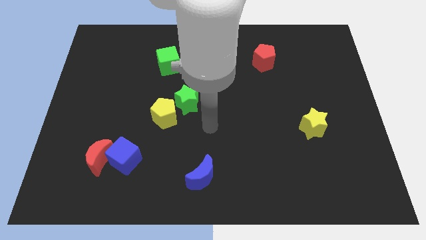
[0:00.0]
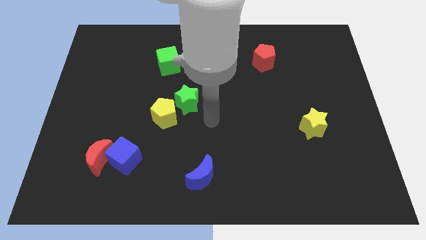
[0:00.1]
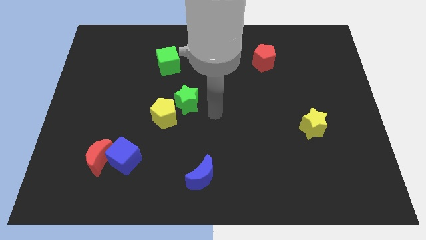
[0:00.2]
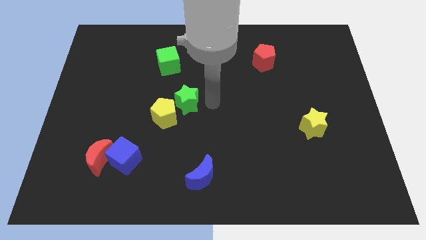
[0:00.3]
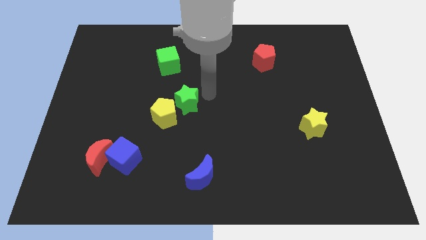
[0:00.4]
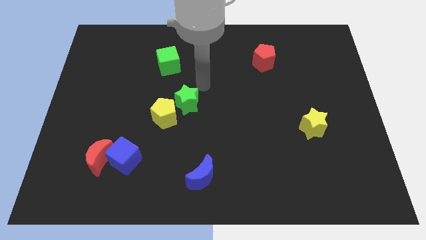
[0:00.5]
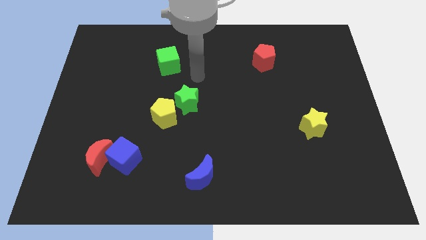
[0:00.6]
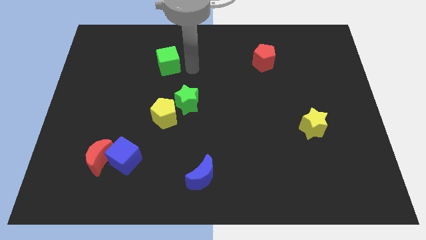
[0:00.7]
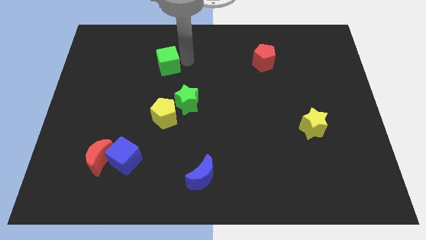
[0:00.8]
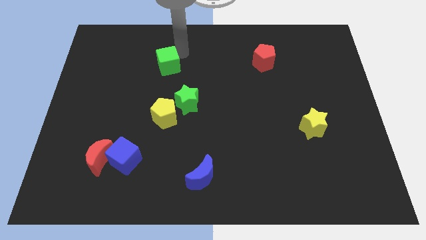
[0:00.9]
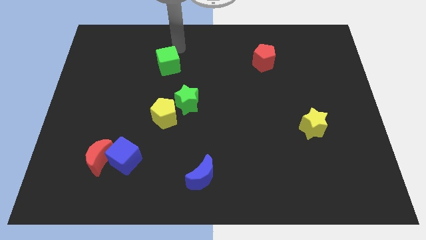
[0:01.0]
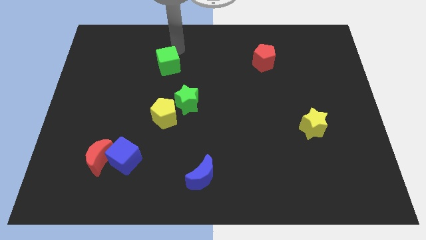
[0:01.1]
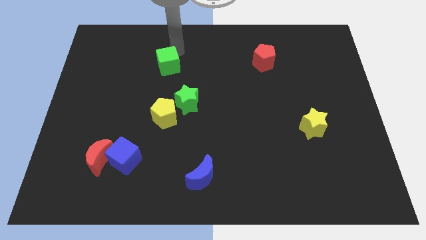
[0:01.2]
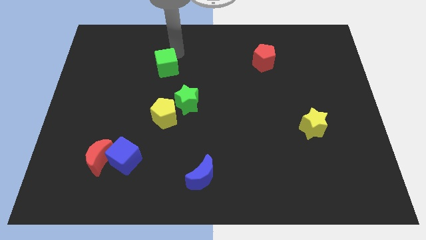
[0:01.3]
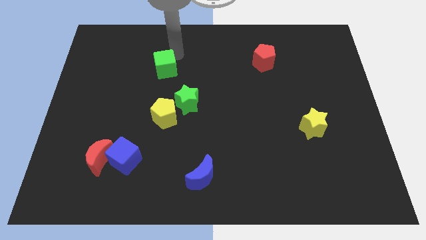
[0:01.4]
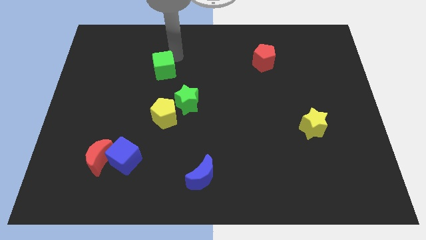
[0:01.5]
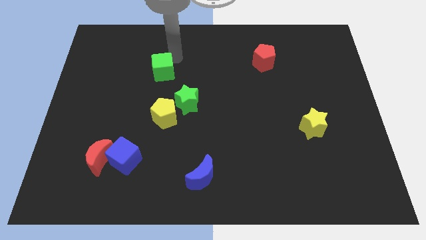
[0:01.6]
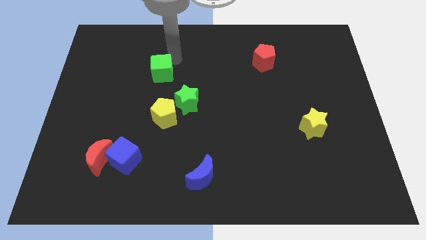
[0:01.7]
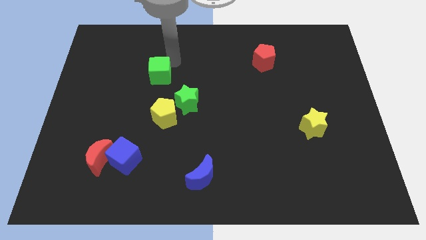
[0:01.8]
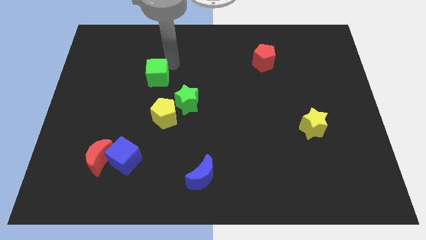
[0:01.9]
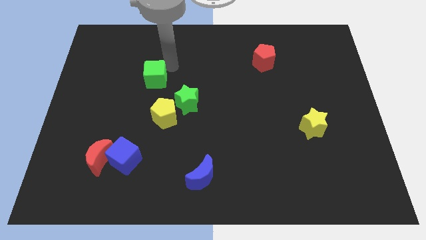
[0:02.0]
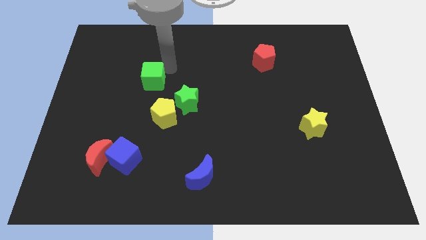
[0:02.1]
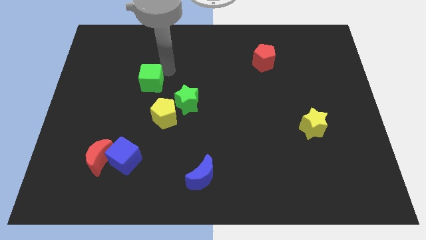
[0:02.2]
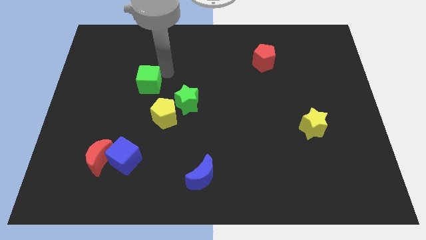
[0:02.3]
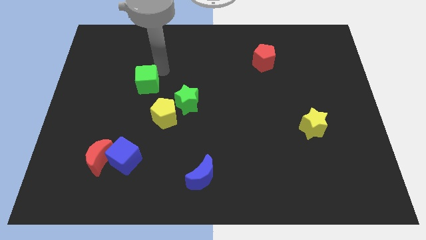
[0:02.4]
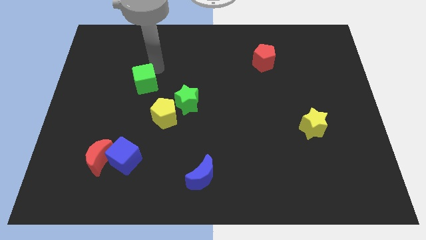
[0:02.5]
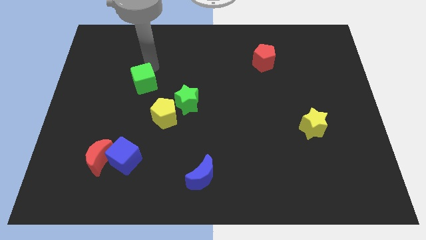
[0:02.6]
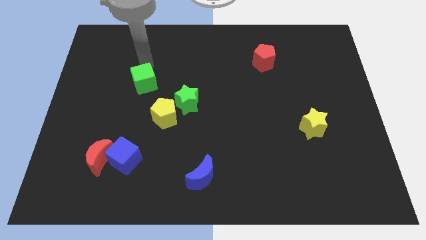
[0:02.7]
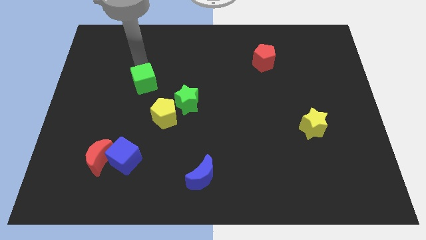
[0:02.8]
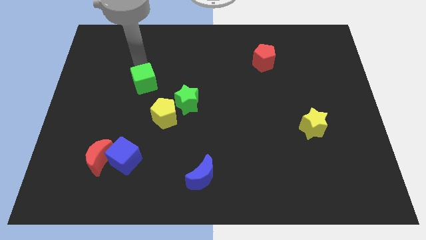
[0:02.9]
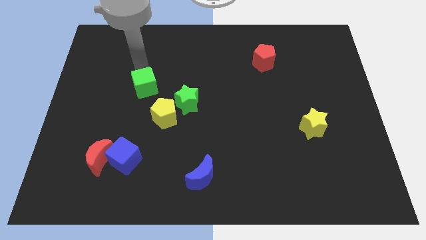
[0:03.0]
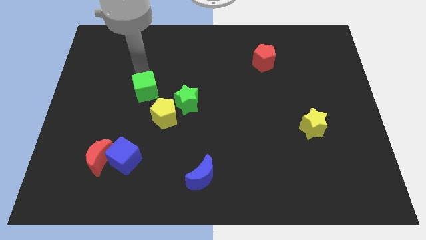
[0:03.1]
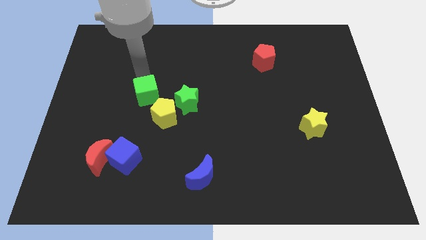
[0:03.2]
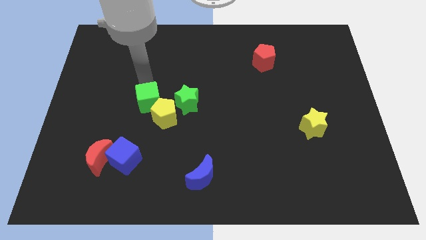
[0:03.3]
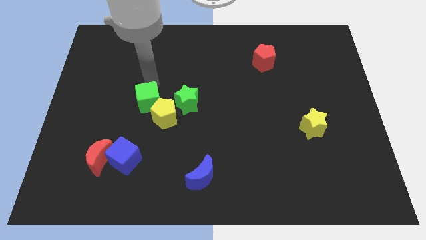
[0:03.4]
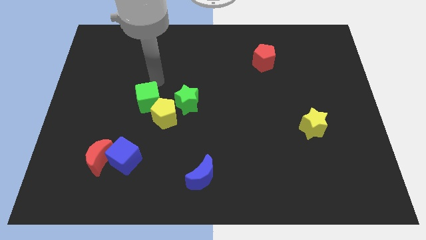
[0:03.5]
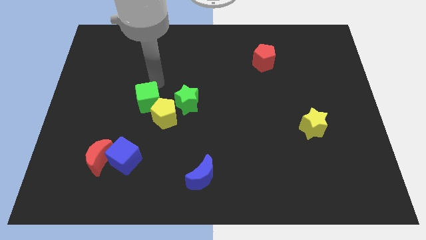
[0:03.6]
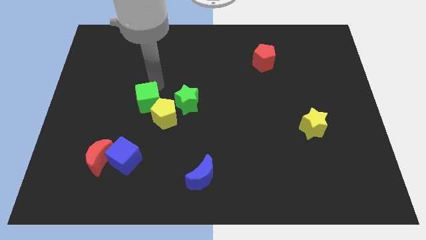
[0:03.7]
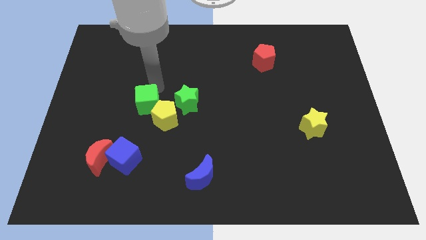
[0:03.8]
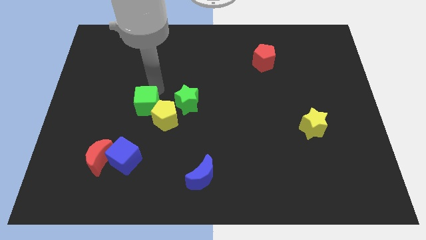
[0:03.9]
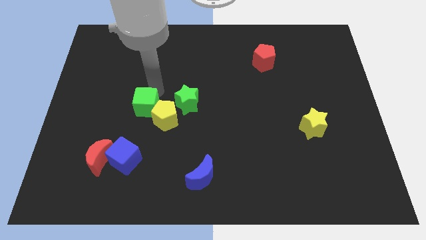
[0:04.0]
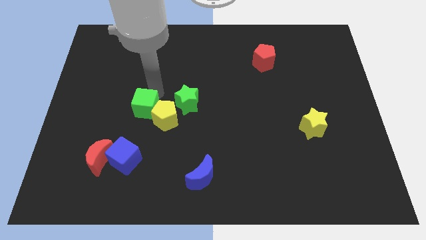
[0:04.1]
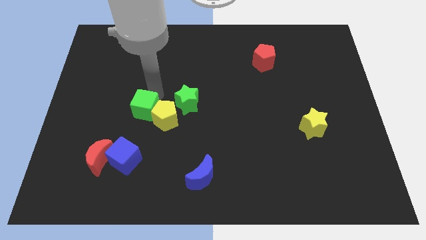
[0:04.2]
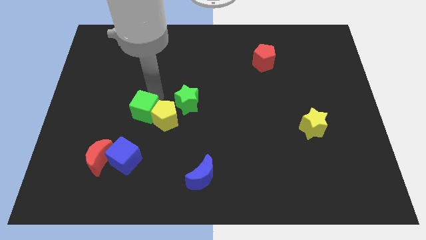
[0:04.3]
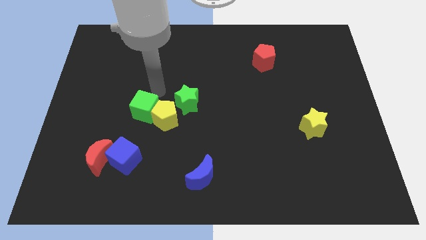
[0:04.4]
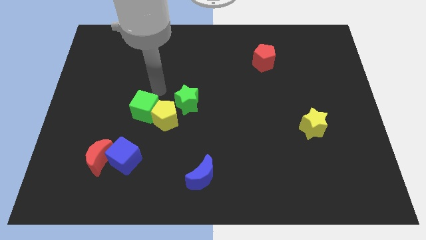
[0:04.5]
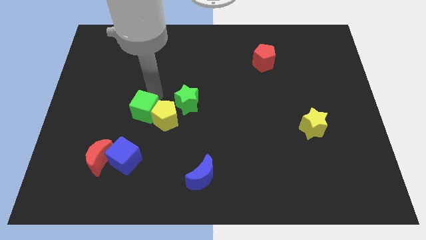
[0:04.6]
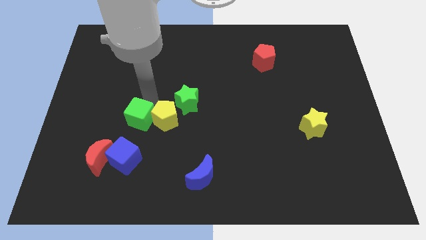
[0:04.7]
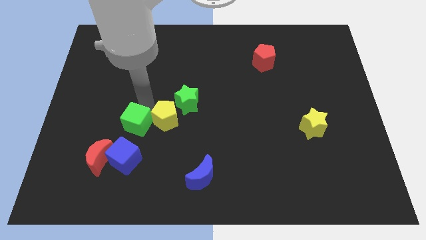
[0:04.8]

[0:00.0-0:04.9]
slide the green cube diagonally up and to the right of the red moon

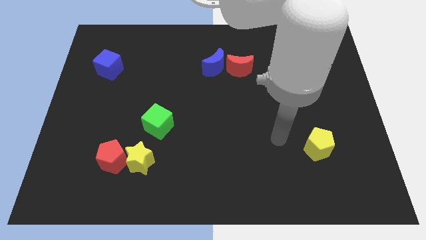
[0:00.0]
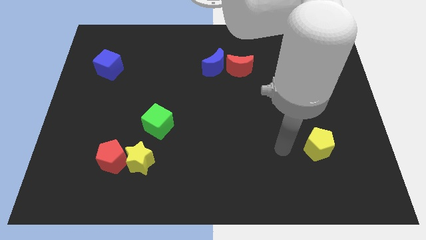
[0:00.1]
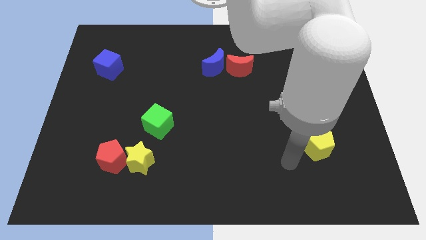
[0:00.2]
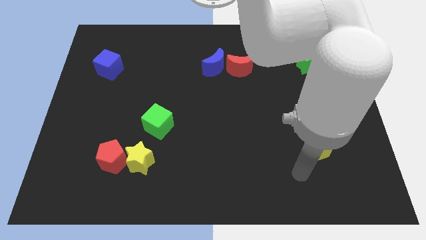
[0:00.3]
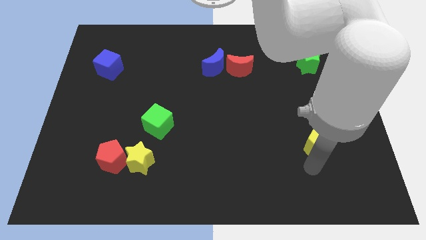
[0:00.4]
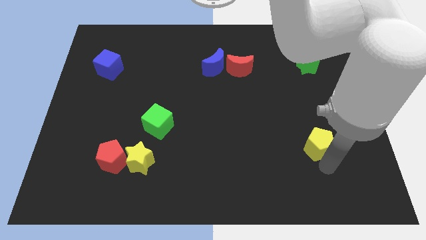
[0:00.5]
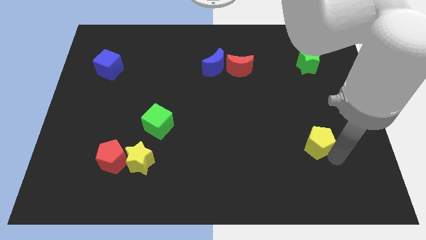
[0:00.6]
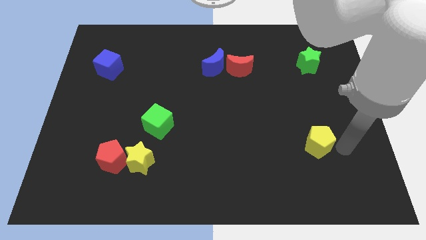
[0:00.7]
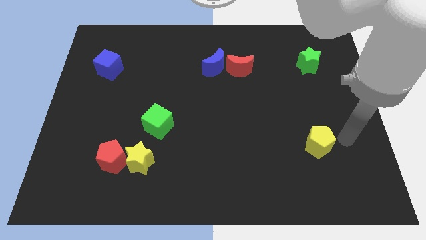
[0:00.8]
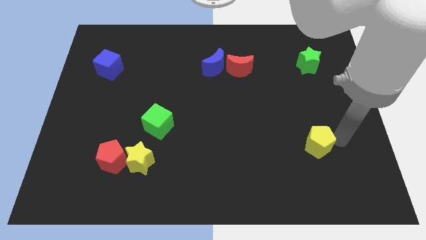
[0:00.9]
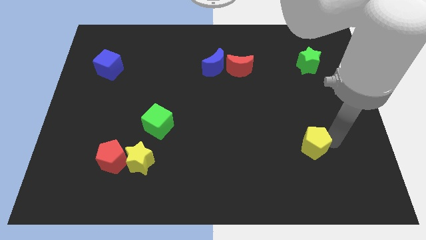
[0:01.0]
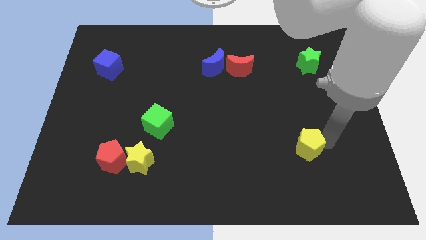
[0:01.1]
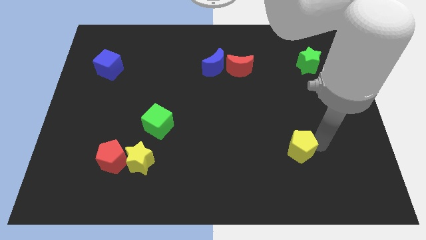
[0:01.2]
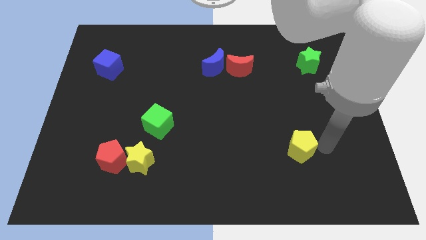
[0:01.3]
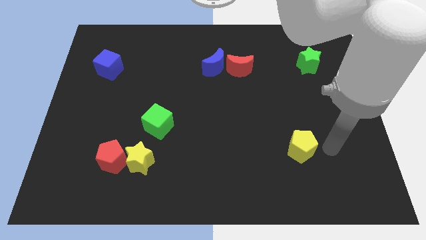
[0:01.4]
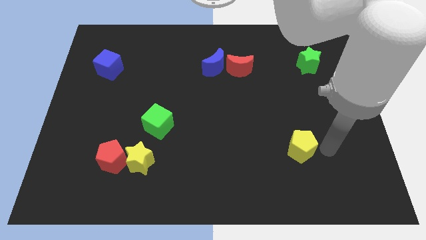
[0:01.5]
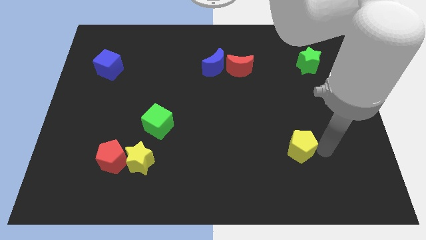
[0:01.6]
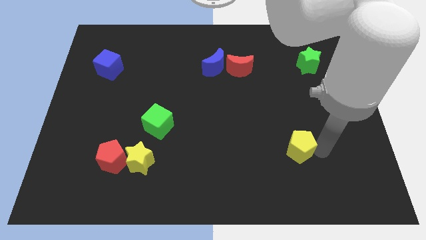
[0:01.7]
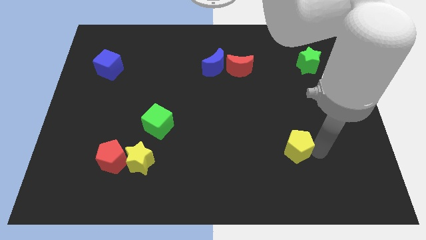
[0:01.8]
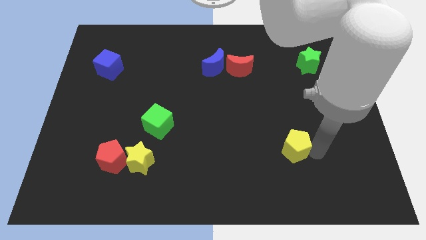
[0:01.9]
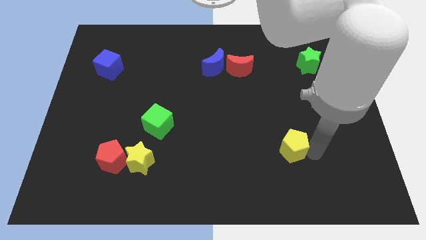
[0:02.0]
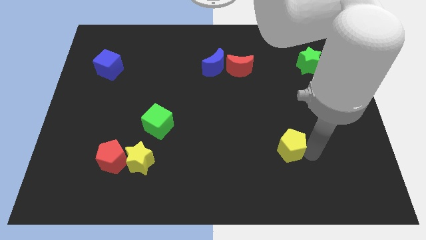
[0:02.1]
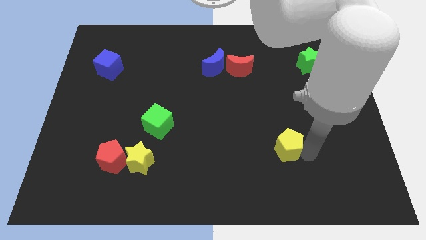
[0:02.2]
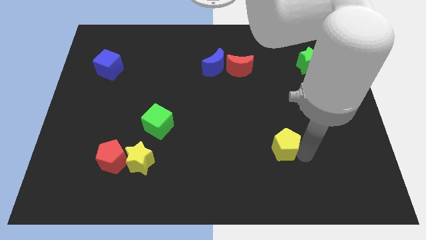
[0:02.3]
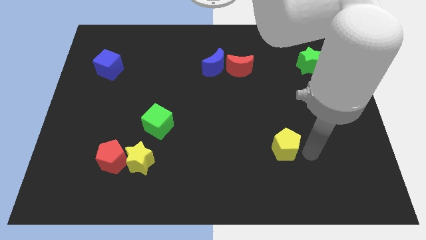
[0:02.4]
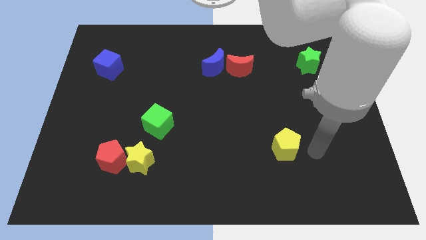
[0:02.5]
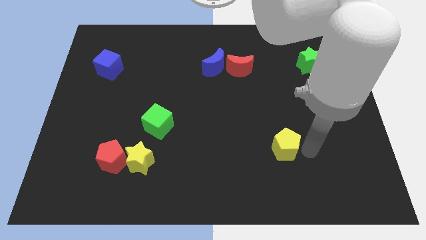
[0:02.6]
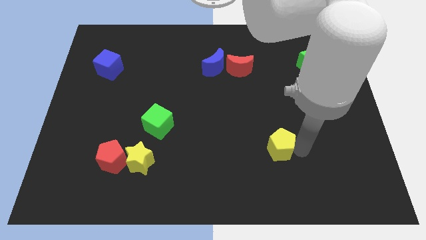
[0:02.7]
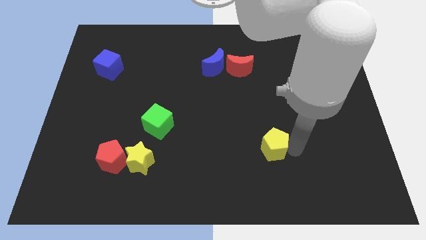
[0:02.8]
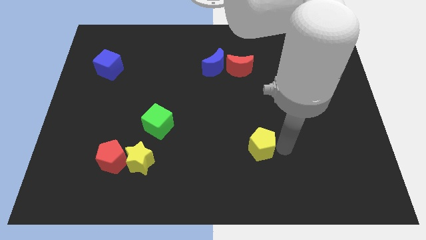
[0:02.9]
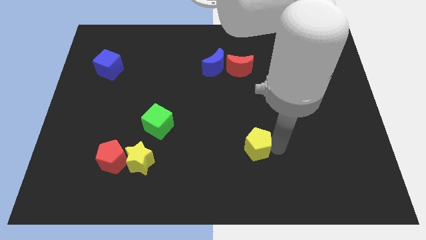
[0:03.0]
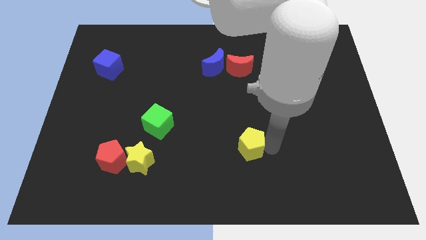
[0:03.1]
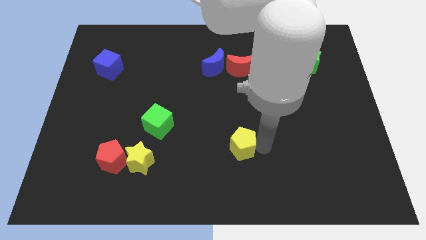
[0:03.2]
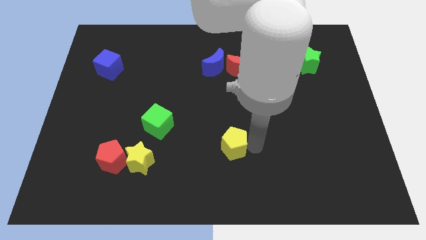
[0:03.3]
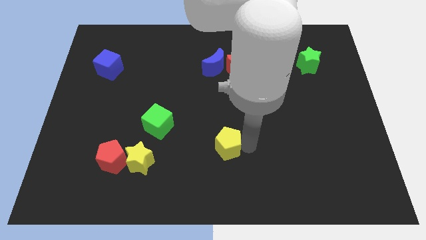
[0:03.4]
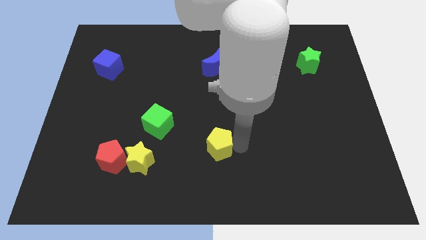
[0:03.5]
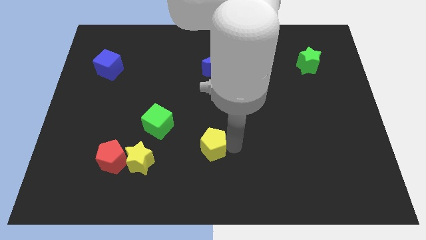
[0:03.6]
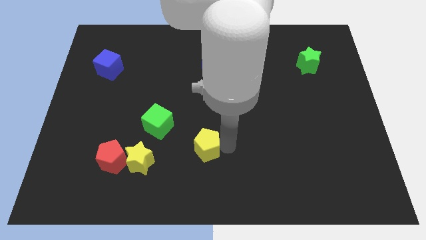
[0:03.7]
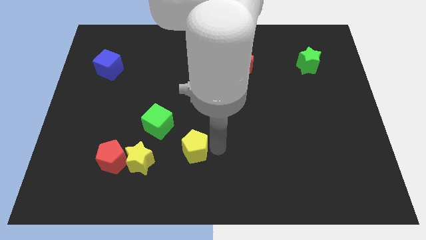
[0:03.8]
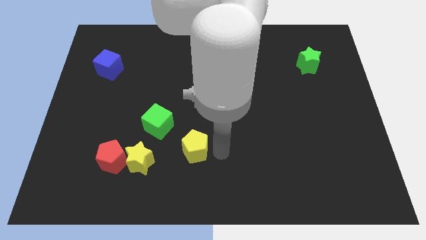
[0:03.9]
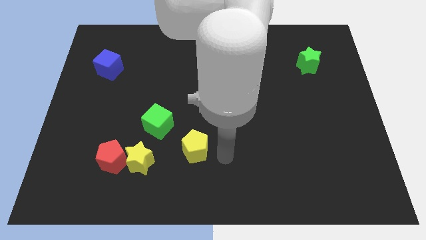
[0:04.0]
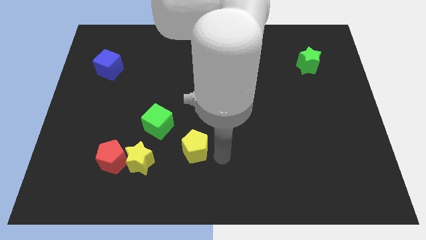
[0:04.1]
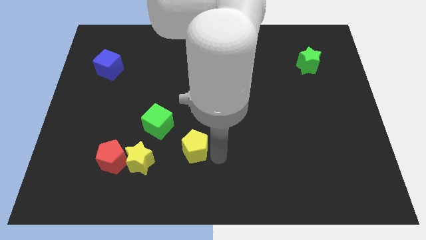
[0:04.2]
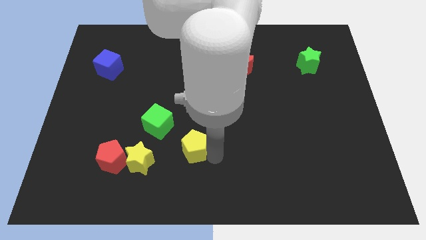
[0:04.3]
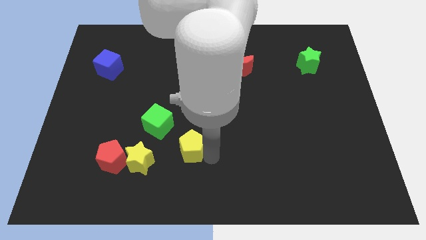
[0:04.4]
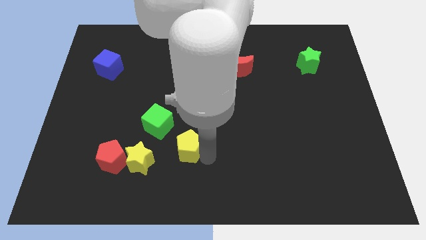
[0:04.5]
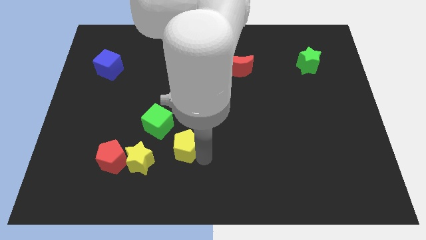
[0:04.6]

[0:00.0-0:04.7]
move the yellow pentagon to the top right side of the yellow star
